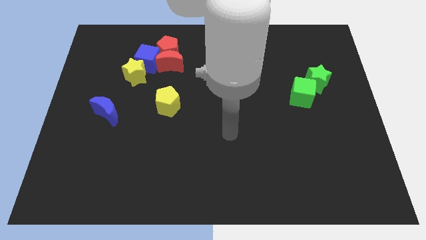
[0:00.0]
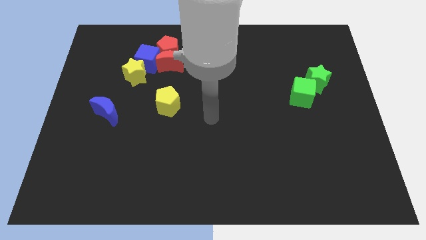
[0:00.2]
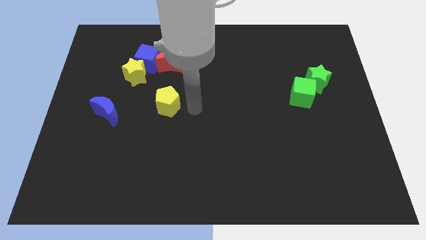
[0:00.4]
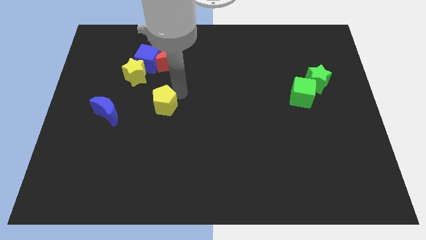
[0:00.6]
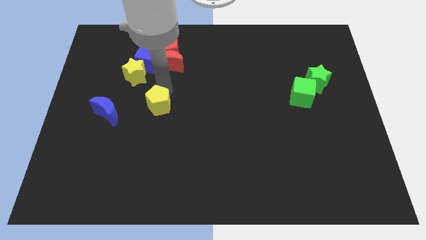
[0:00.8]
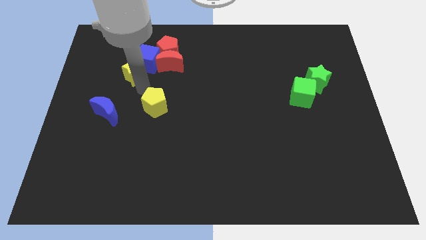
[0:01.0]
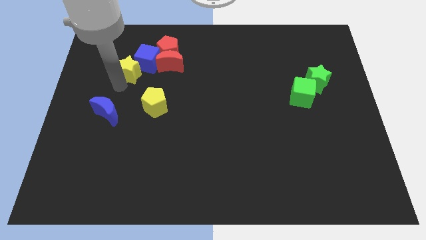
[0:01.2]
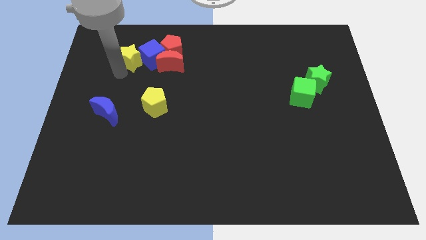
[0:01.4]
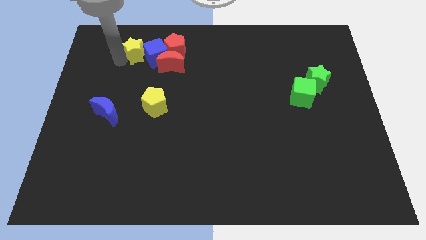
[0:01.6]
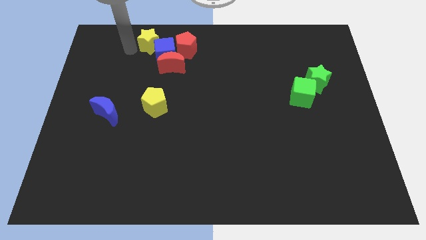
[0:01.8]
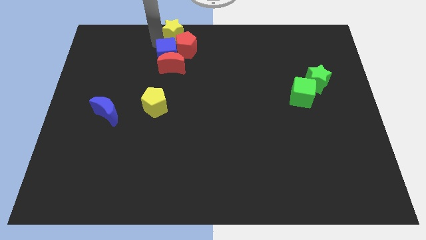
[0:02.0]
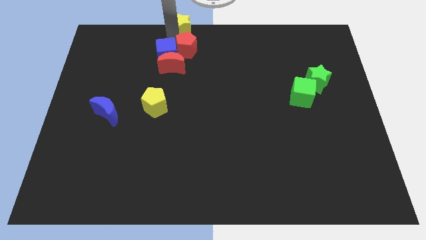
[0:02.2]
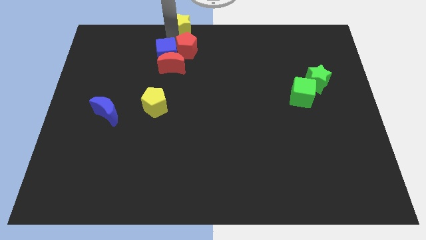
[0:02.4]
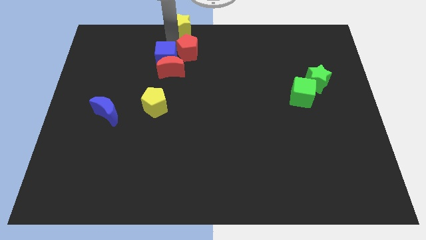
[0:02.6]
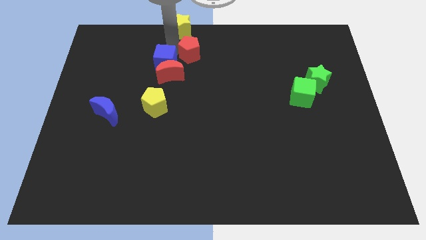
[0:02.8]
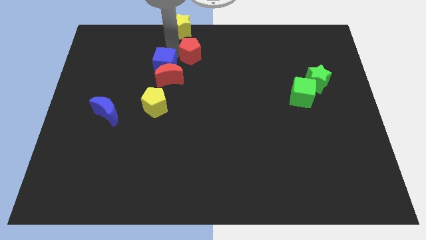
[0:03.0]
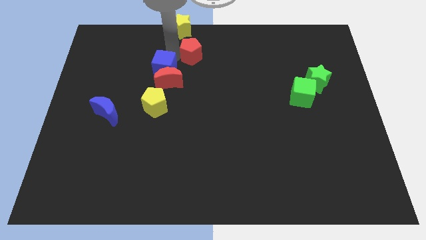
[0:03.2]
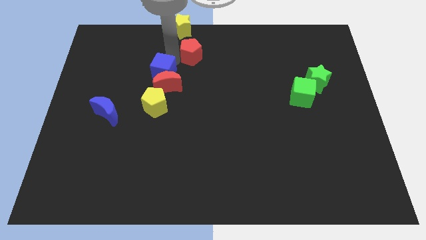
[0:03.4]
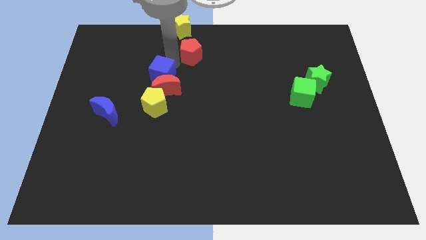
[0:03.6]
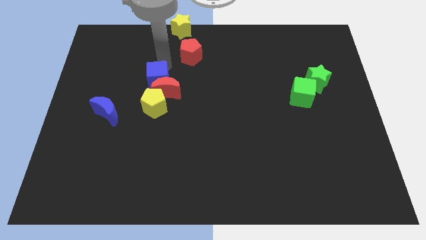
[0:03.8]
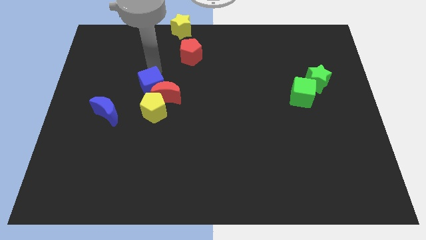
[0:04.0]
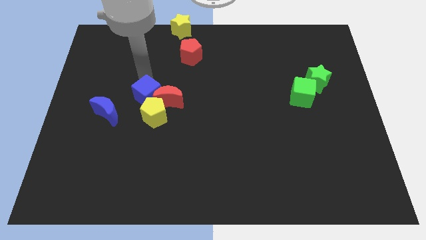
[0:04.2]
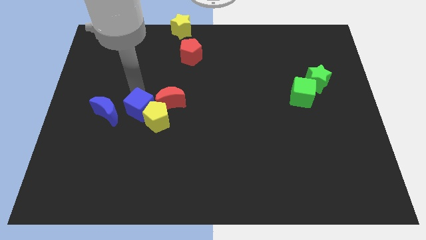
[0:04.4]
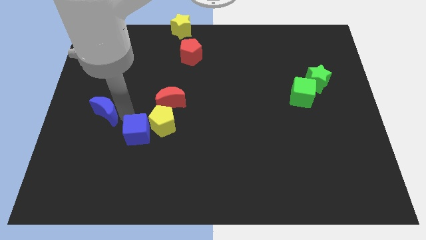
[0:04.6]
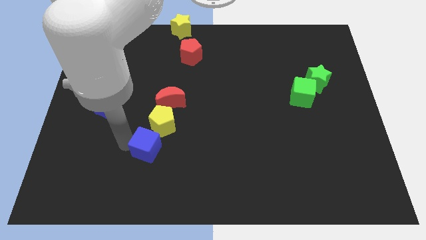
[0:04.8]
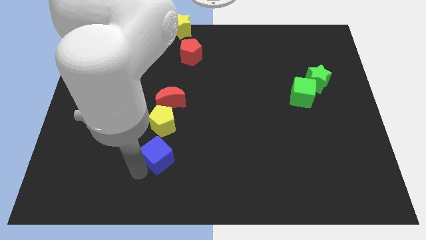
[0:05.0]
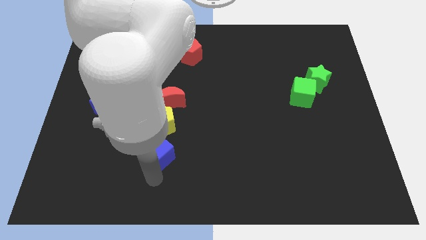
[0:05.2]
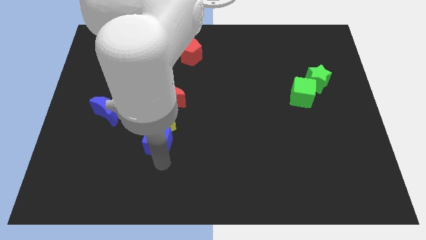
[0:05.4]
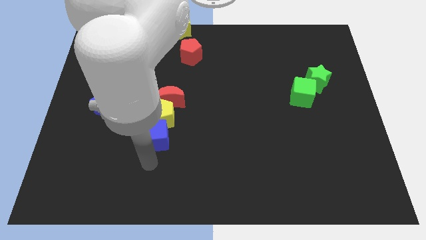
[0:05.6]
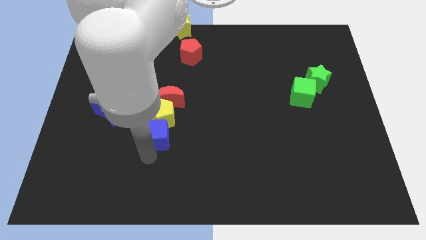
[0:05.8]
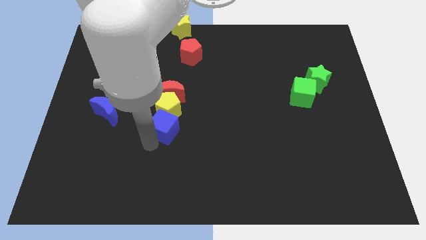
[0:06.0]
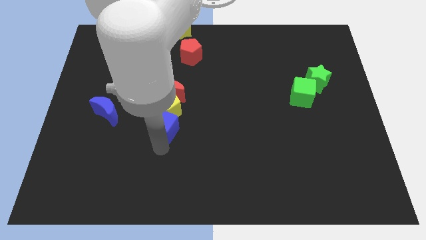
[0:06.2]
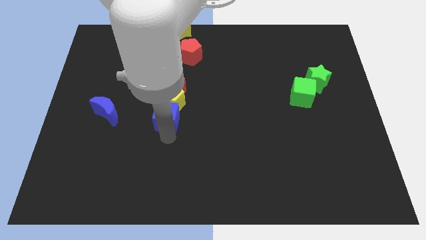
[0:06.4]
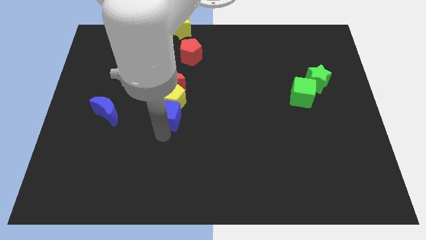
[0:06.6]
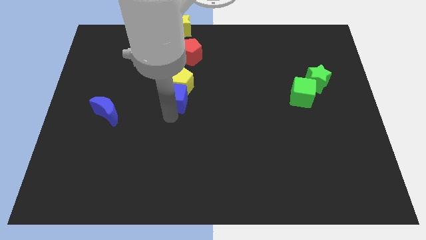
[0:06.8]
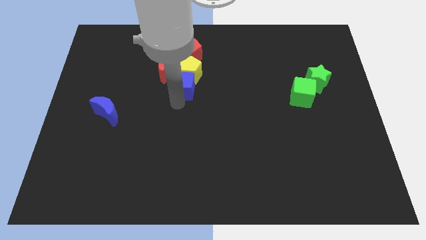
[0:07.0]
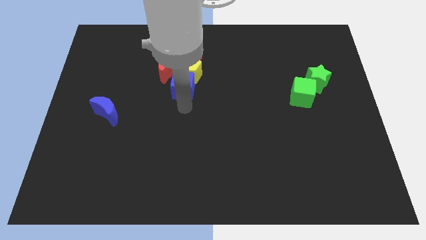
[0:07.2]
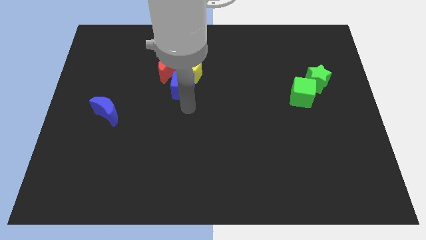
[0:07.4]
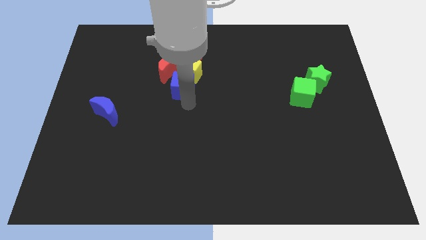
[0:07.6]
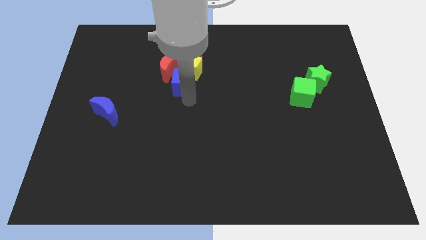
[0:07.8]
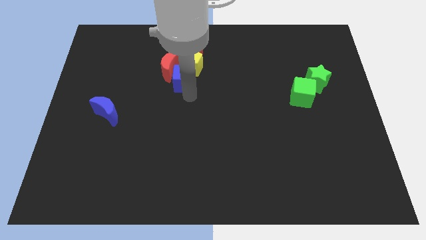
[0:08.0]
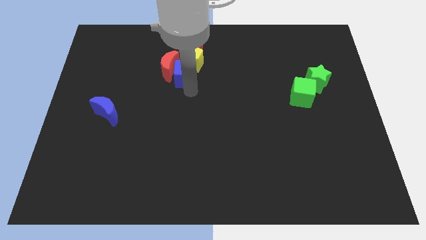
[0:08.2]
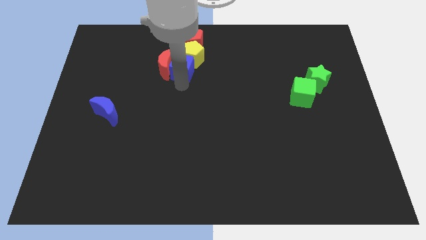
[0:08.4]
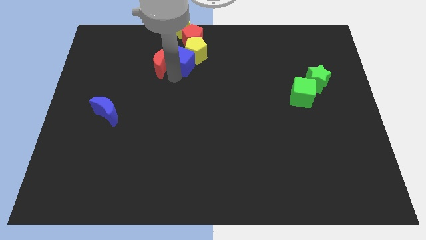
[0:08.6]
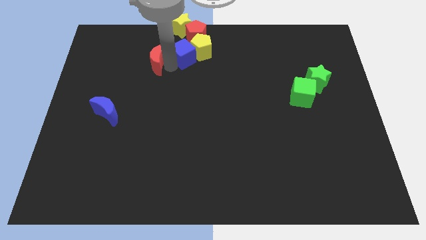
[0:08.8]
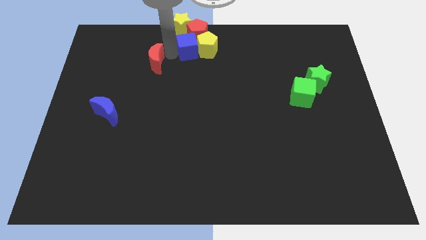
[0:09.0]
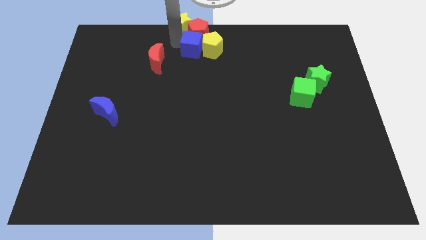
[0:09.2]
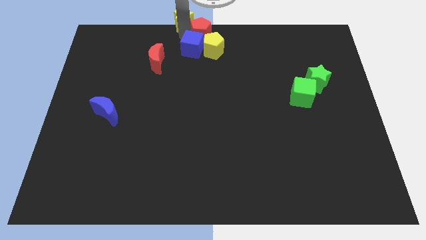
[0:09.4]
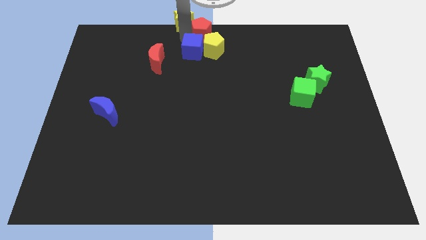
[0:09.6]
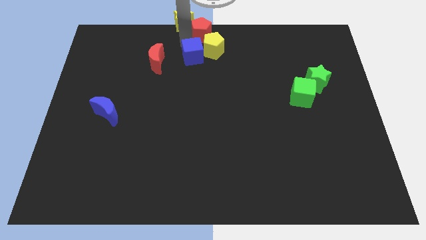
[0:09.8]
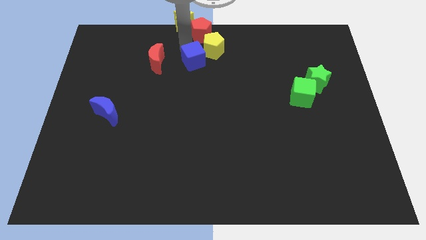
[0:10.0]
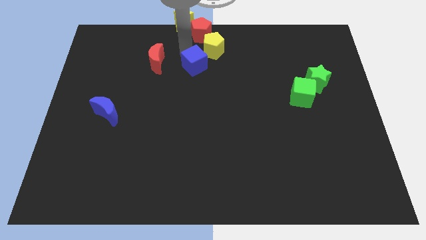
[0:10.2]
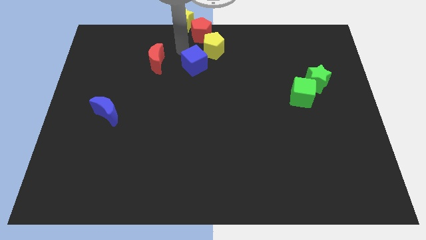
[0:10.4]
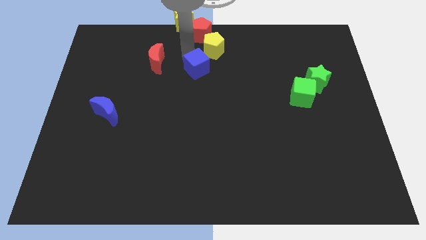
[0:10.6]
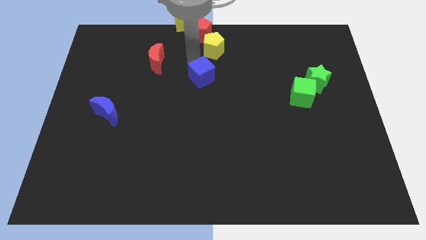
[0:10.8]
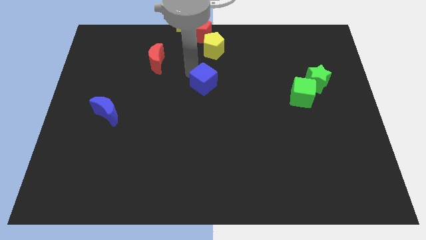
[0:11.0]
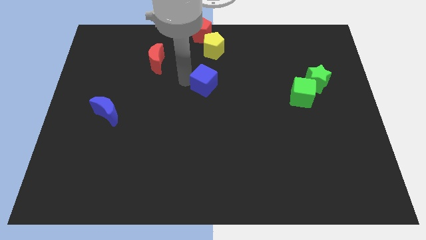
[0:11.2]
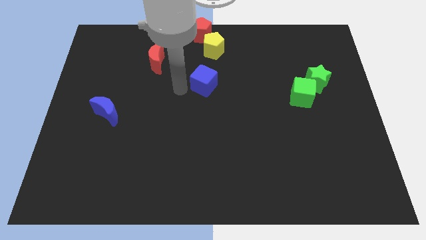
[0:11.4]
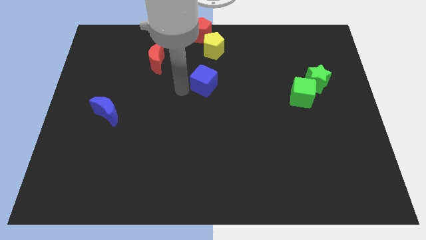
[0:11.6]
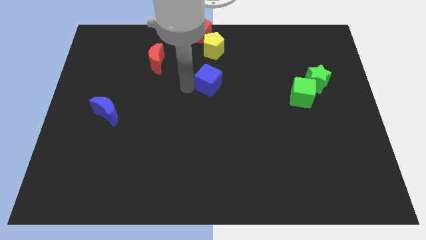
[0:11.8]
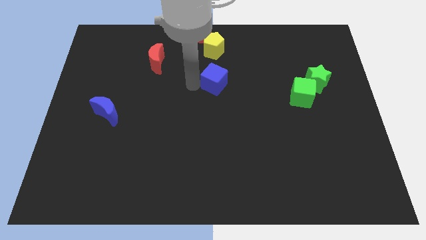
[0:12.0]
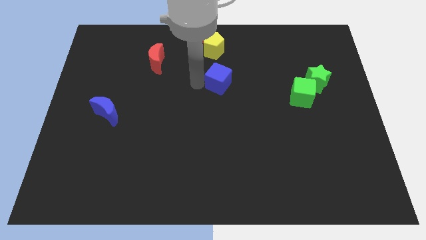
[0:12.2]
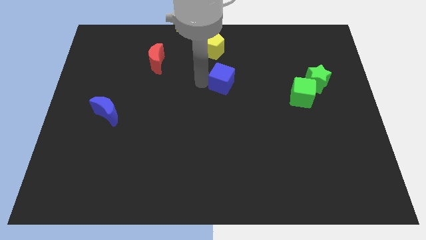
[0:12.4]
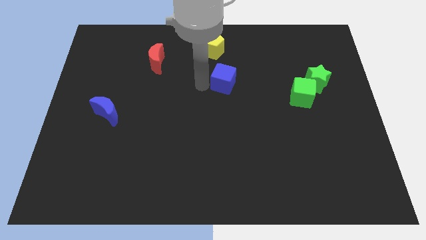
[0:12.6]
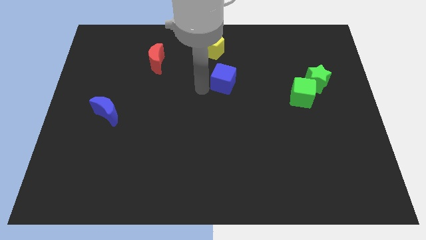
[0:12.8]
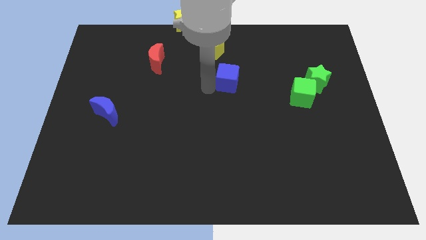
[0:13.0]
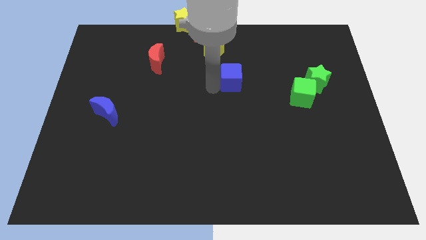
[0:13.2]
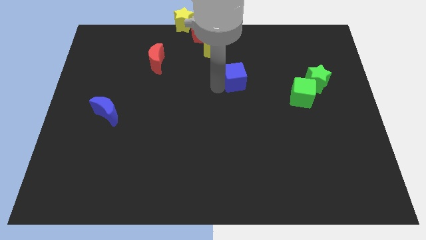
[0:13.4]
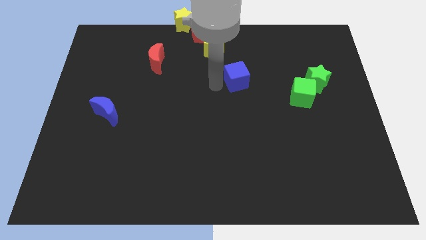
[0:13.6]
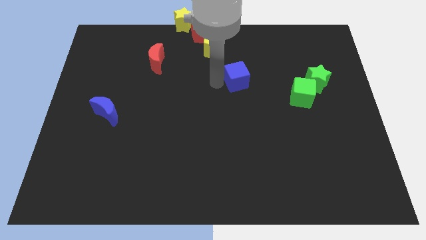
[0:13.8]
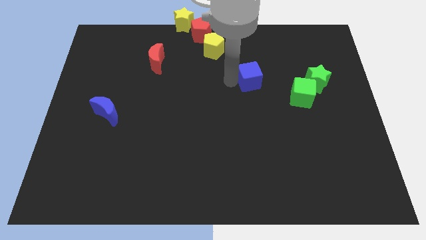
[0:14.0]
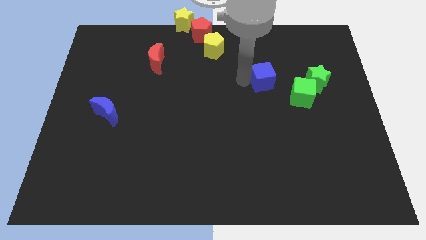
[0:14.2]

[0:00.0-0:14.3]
slide the blue cube to the top left side of the green cube
